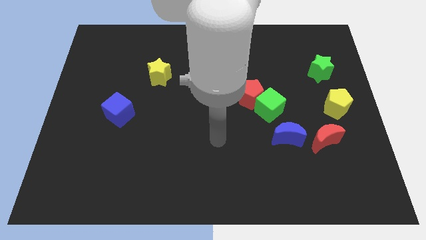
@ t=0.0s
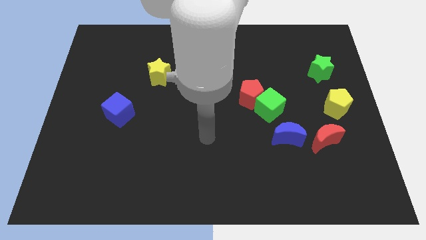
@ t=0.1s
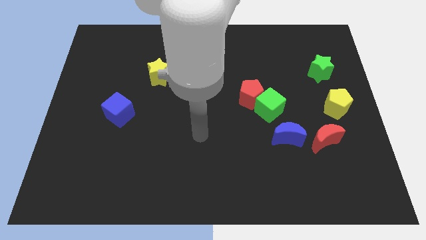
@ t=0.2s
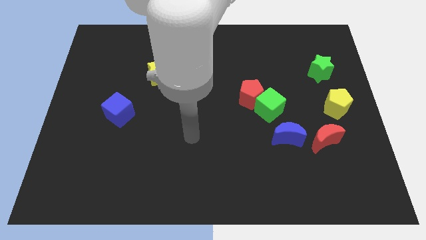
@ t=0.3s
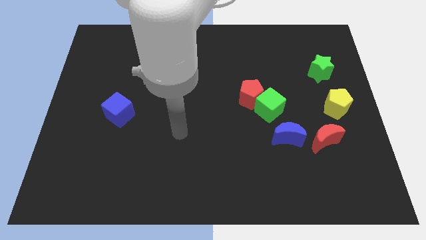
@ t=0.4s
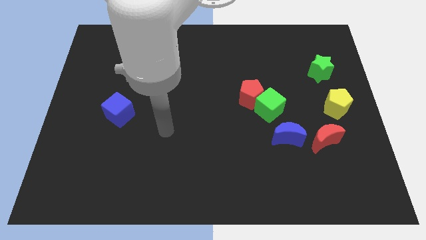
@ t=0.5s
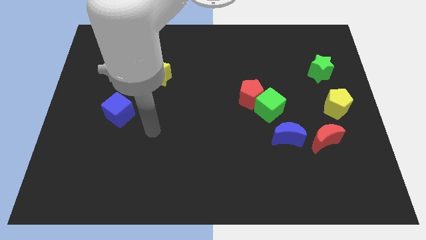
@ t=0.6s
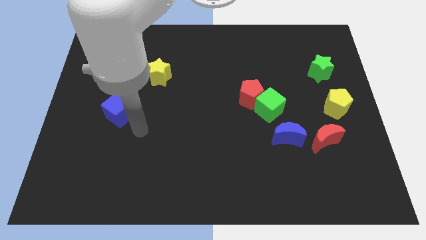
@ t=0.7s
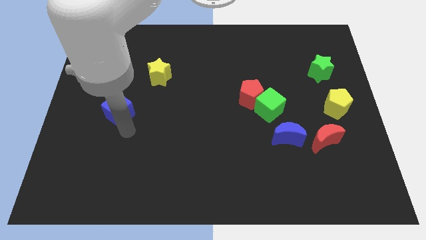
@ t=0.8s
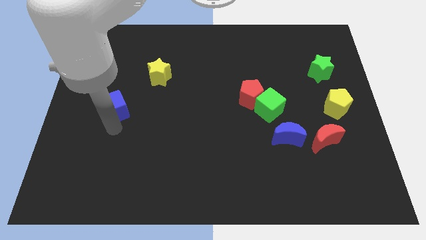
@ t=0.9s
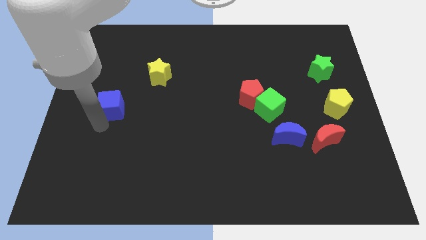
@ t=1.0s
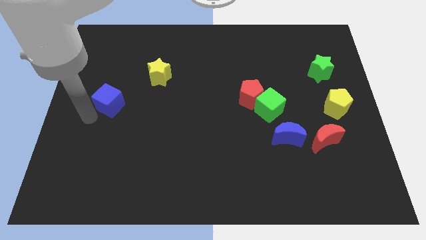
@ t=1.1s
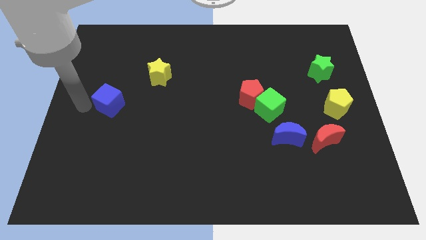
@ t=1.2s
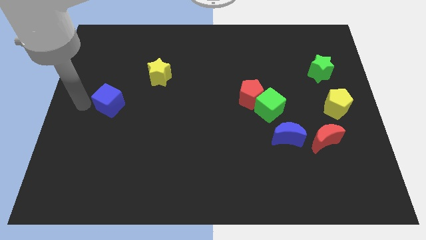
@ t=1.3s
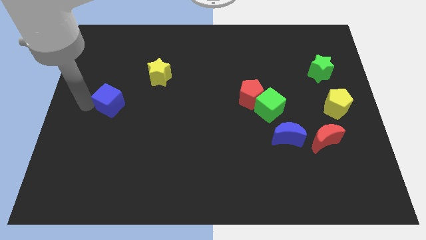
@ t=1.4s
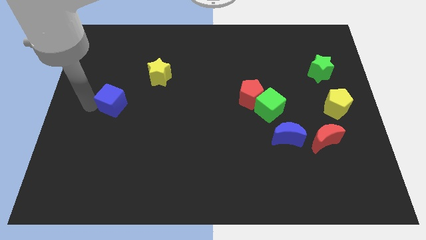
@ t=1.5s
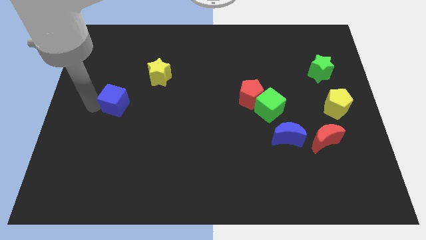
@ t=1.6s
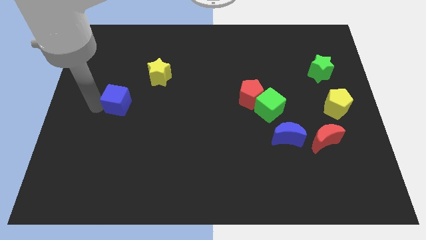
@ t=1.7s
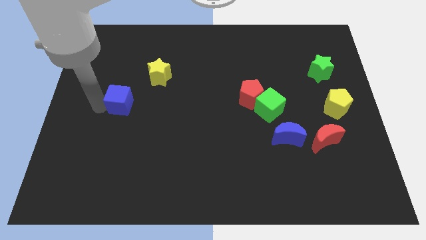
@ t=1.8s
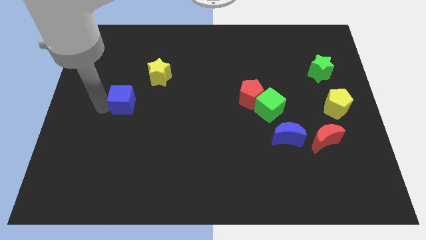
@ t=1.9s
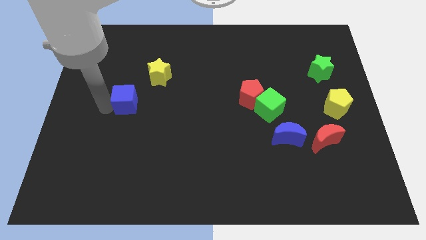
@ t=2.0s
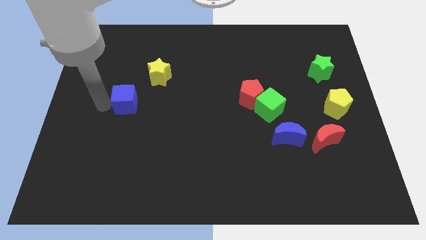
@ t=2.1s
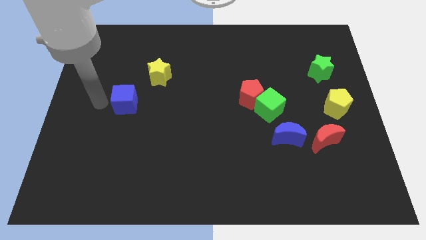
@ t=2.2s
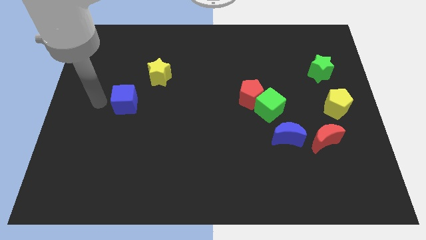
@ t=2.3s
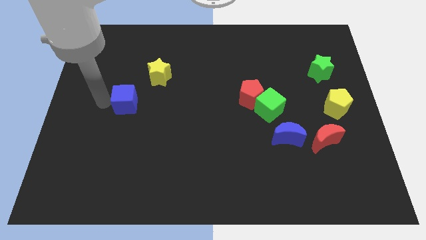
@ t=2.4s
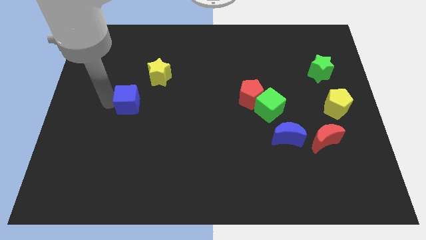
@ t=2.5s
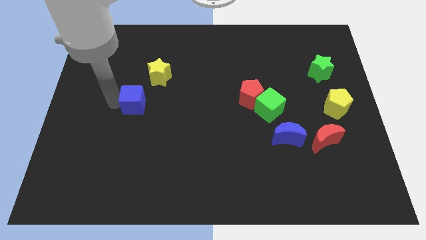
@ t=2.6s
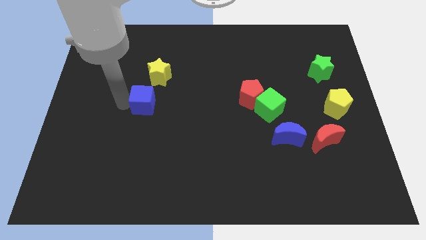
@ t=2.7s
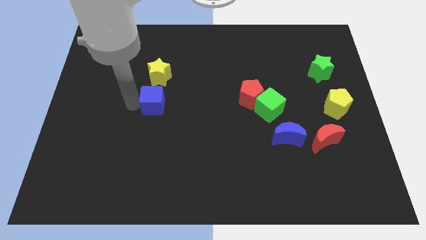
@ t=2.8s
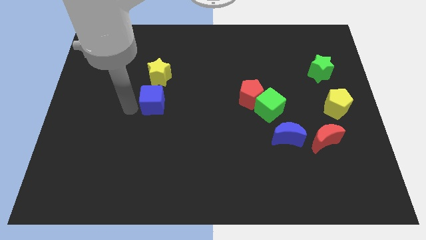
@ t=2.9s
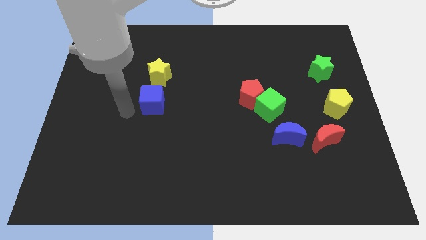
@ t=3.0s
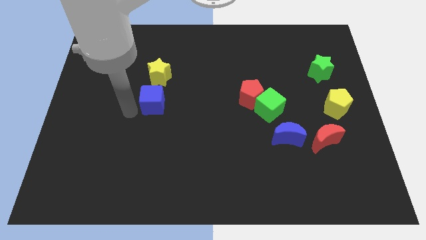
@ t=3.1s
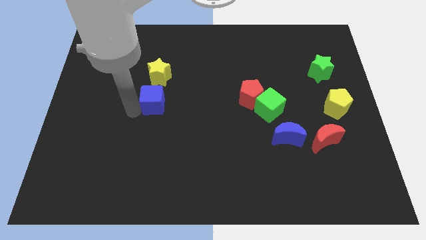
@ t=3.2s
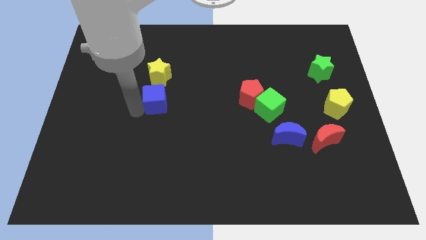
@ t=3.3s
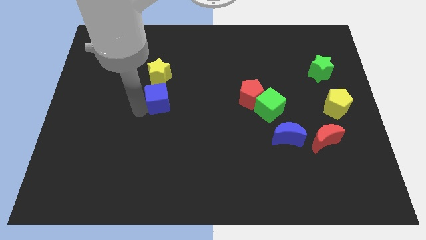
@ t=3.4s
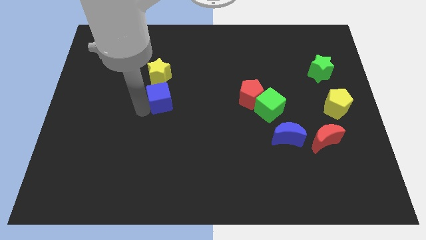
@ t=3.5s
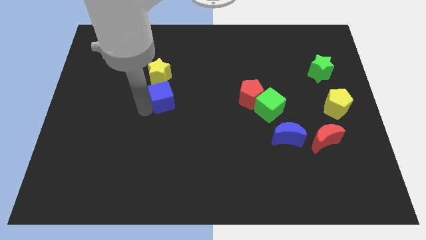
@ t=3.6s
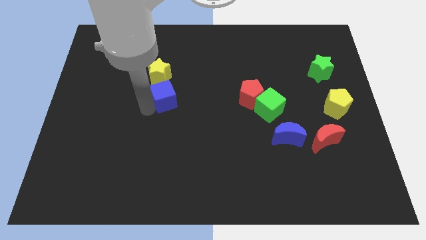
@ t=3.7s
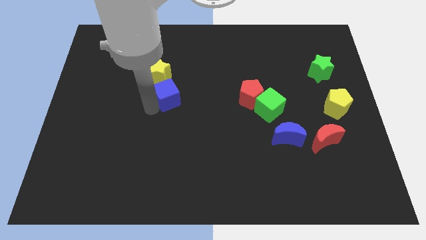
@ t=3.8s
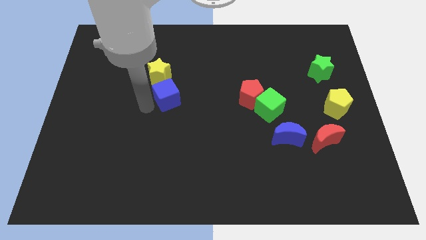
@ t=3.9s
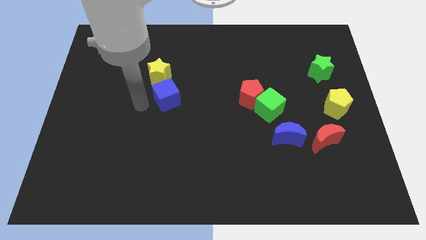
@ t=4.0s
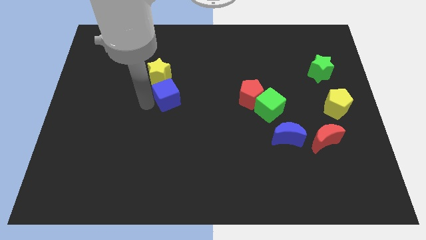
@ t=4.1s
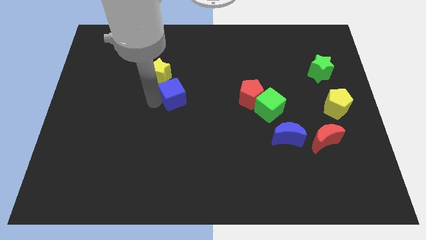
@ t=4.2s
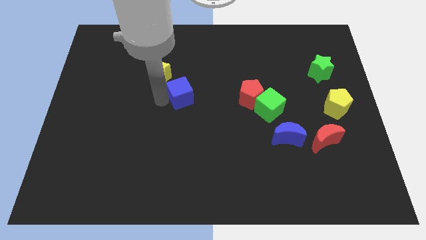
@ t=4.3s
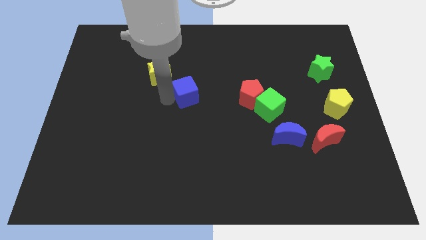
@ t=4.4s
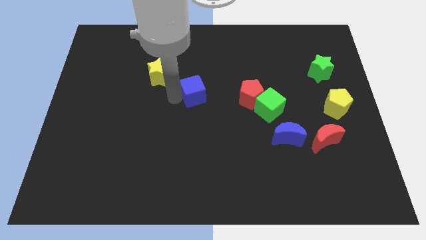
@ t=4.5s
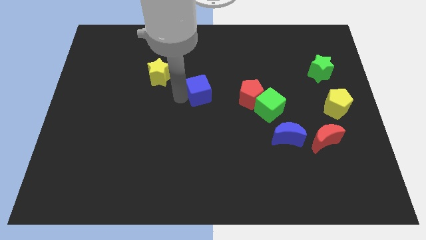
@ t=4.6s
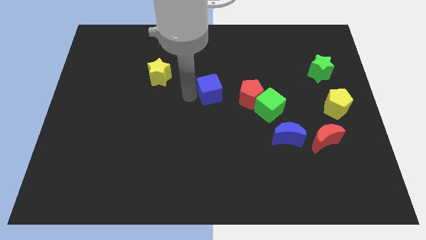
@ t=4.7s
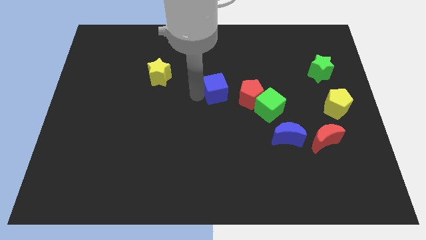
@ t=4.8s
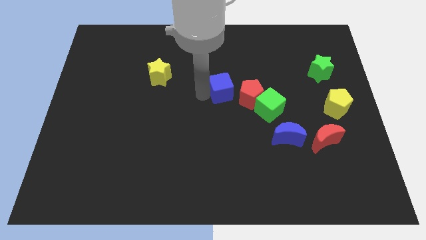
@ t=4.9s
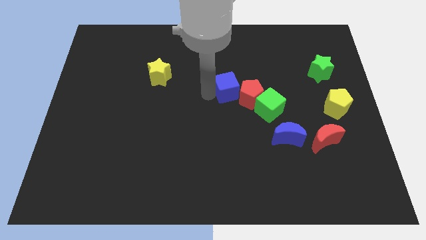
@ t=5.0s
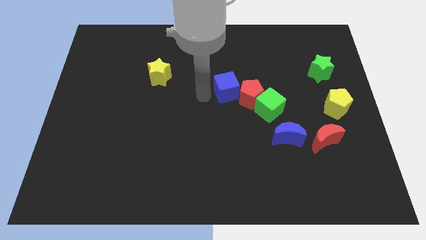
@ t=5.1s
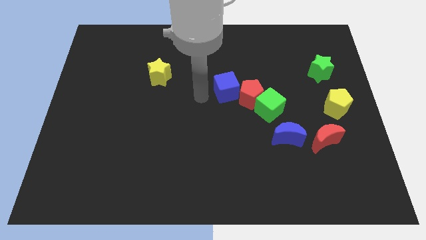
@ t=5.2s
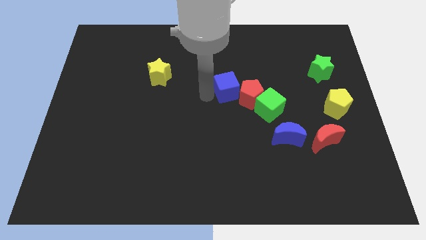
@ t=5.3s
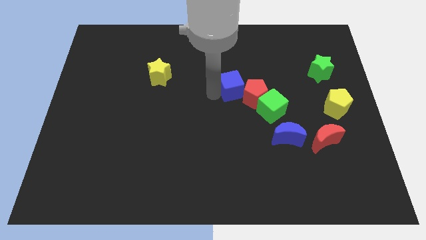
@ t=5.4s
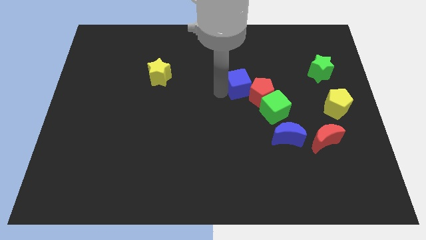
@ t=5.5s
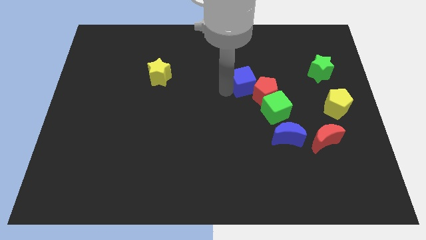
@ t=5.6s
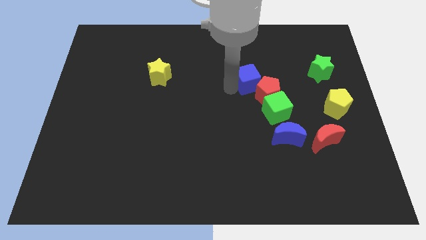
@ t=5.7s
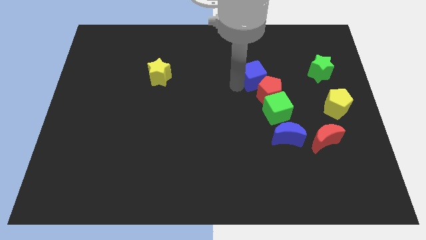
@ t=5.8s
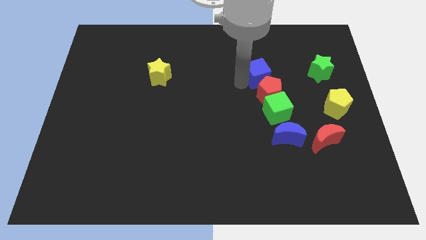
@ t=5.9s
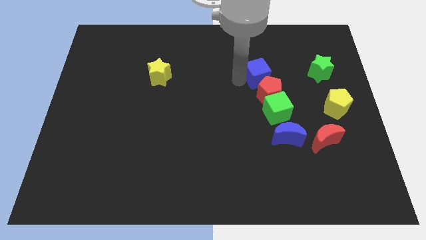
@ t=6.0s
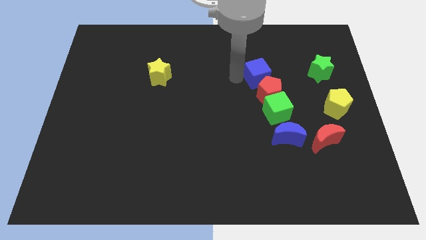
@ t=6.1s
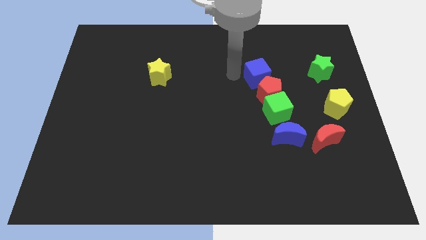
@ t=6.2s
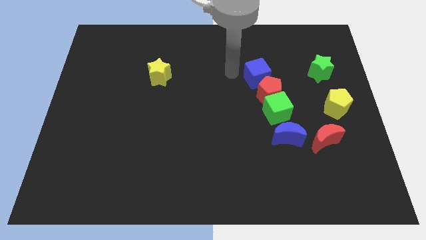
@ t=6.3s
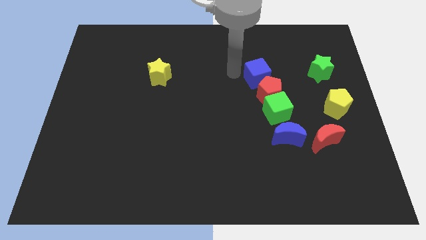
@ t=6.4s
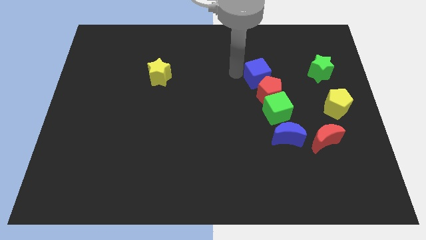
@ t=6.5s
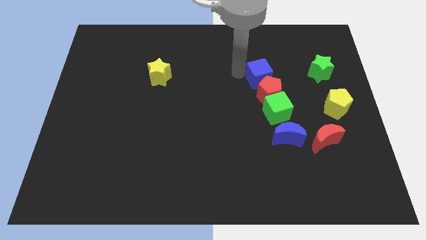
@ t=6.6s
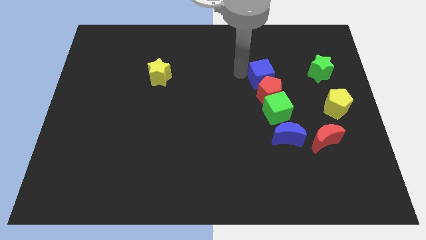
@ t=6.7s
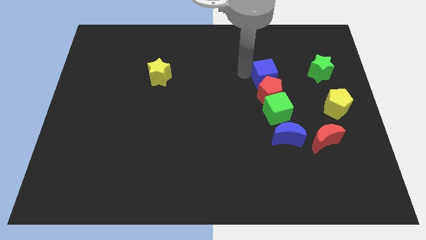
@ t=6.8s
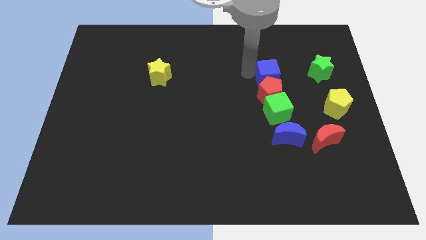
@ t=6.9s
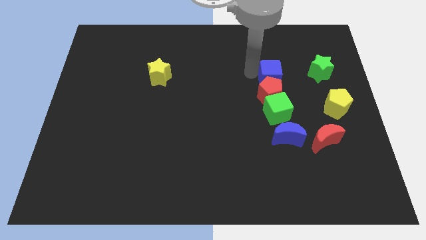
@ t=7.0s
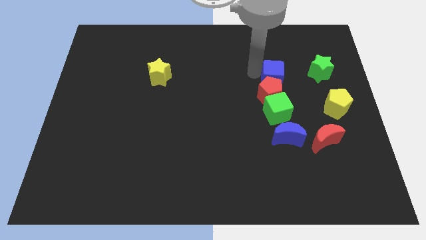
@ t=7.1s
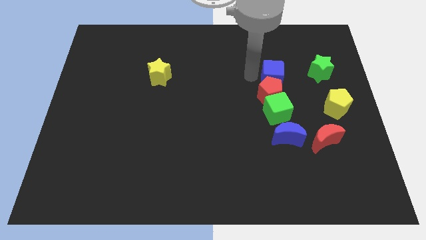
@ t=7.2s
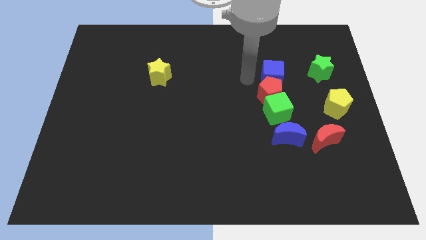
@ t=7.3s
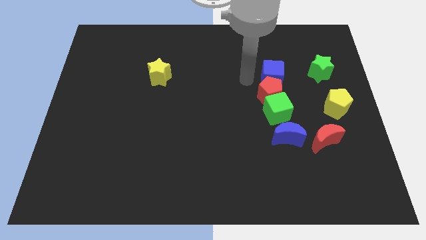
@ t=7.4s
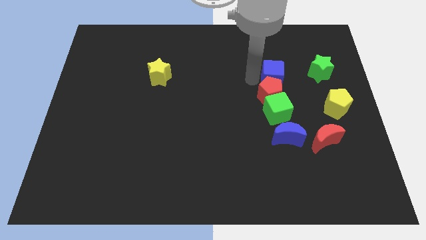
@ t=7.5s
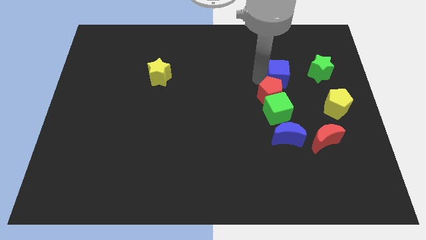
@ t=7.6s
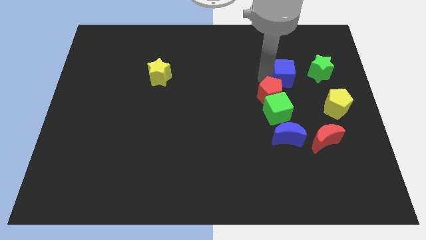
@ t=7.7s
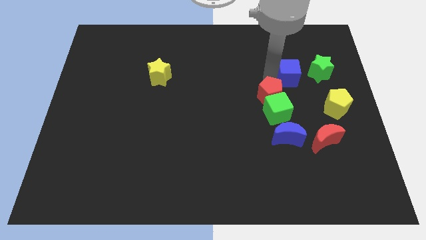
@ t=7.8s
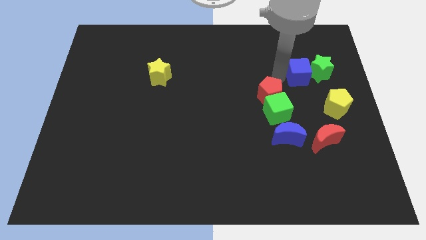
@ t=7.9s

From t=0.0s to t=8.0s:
push the blue cube close to the green star
